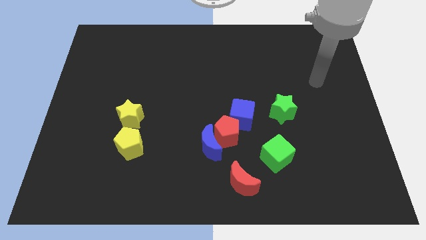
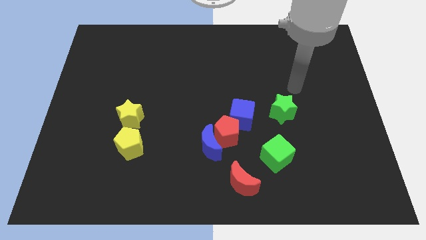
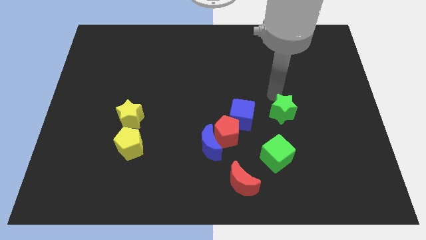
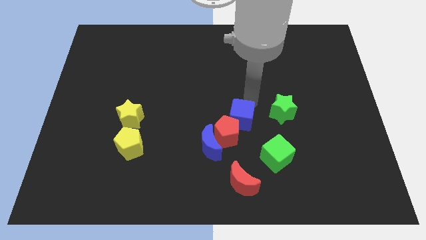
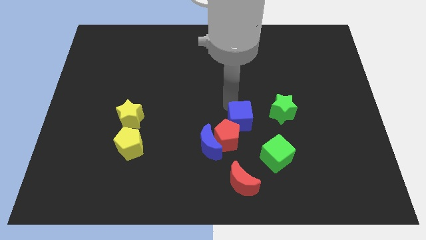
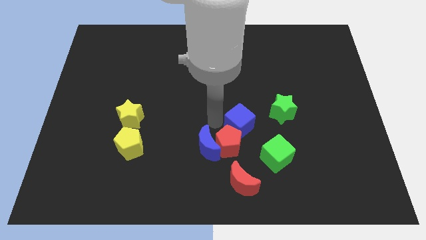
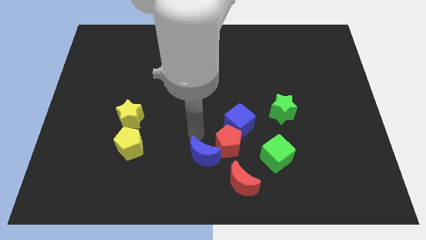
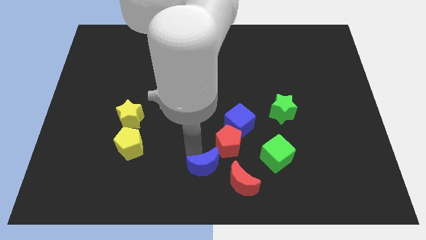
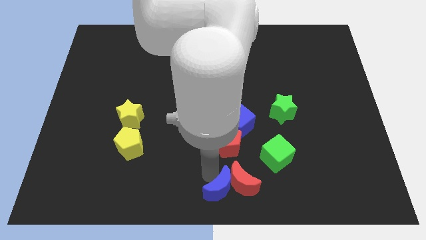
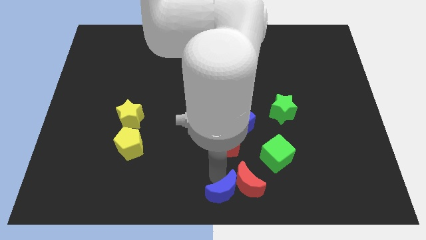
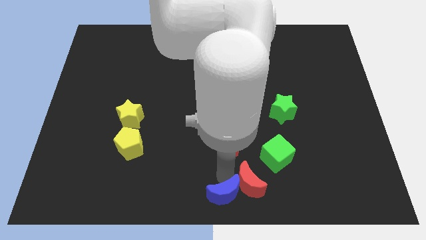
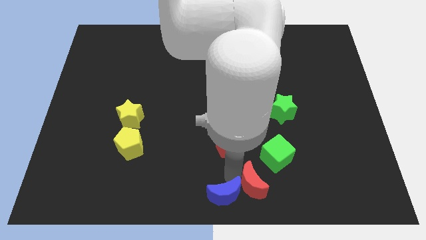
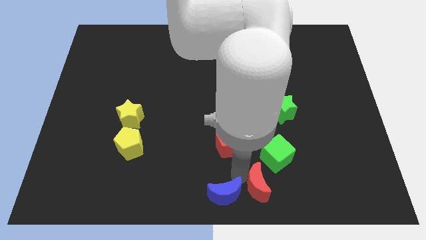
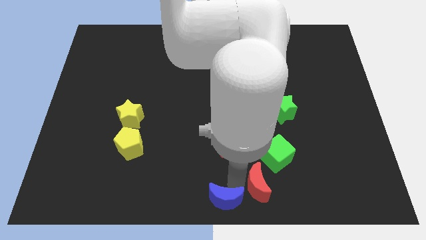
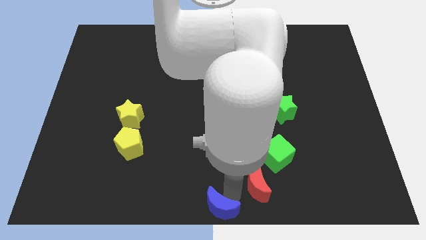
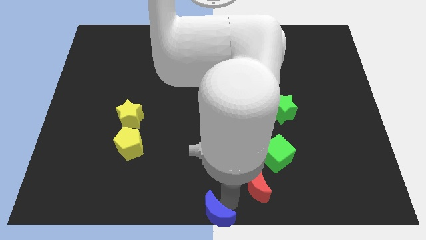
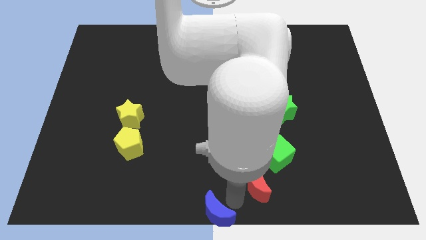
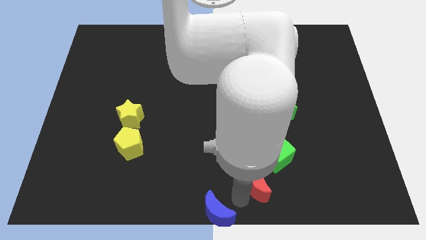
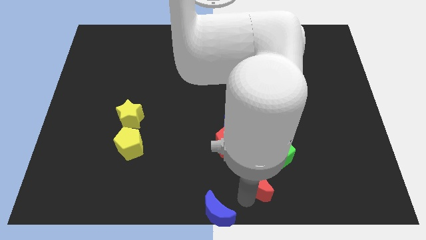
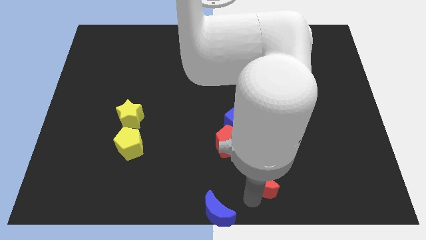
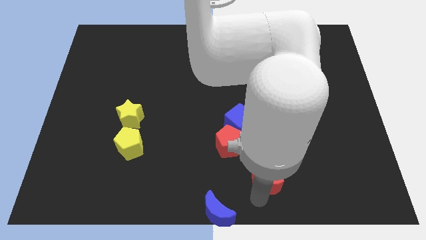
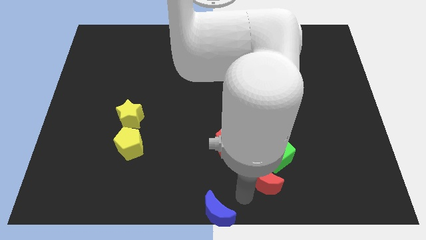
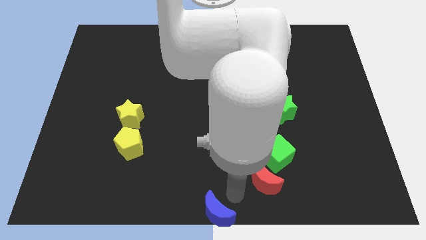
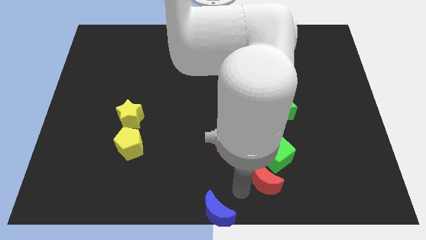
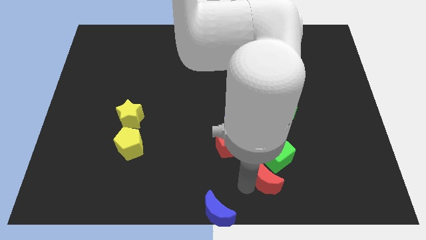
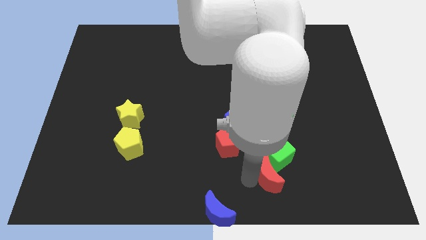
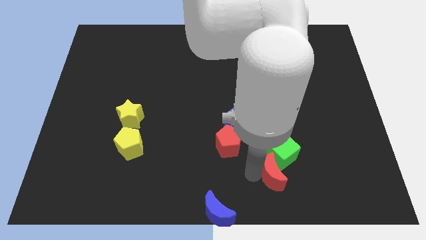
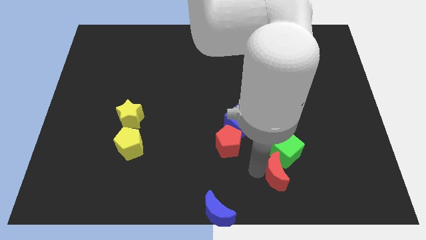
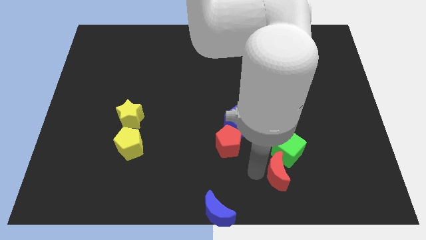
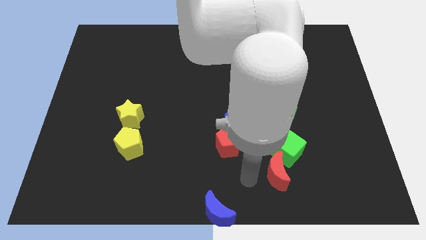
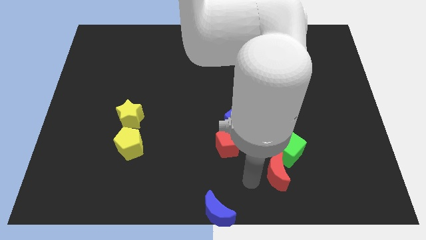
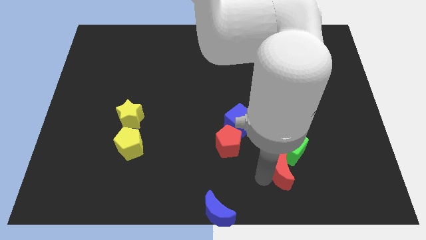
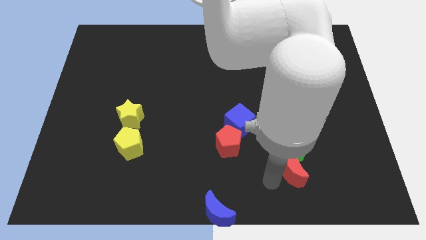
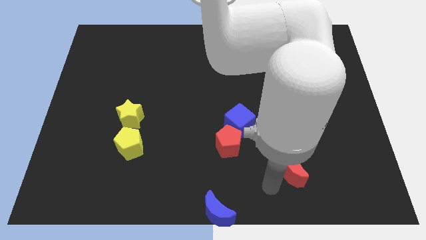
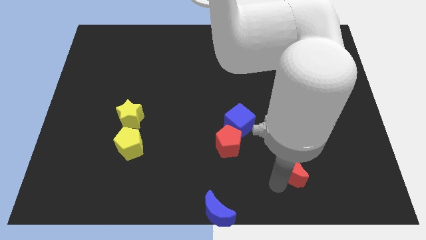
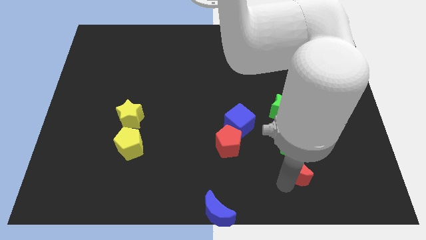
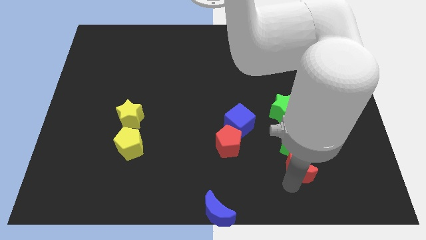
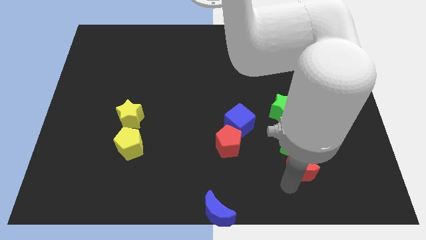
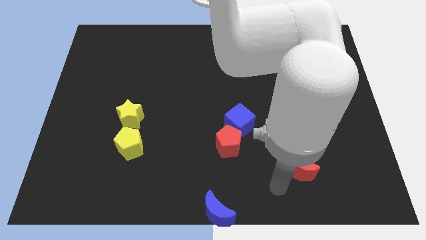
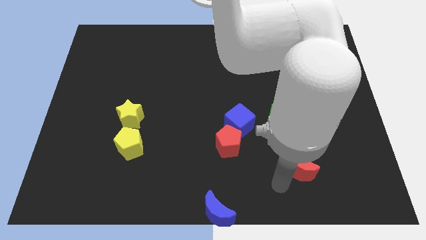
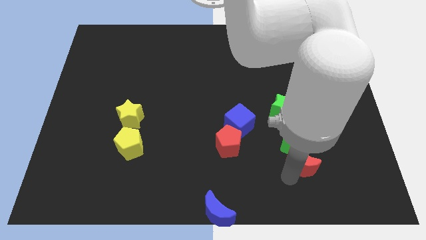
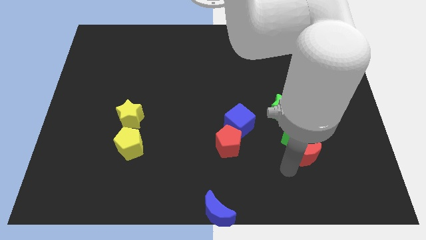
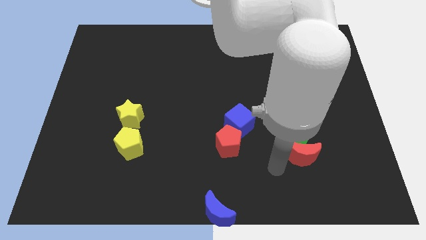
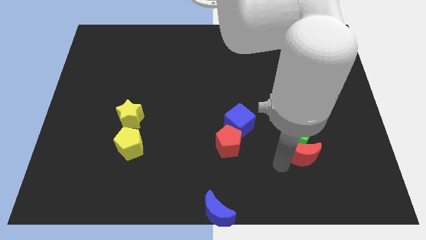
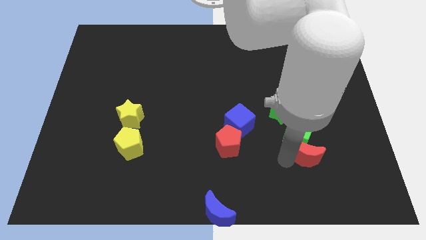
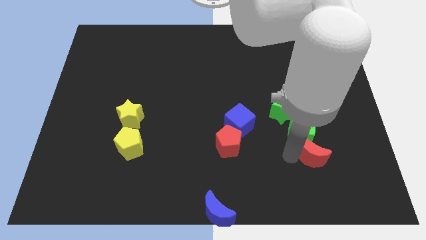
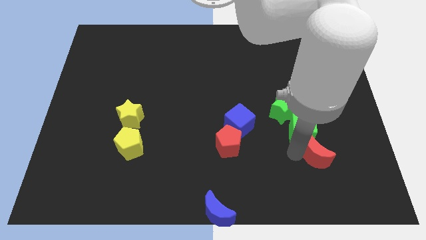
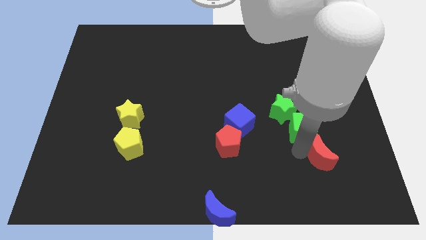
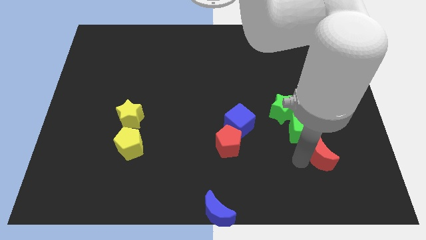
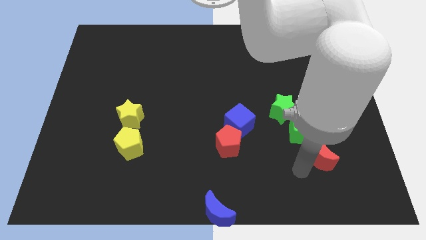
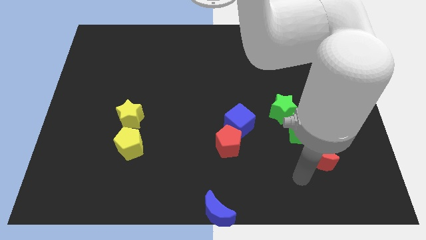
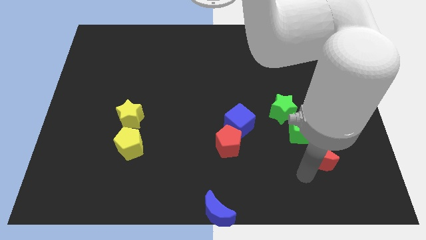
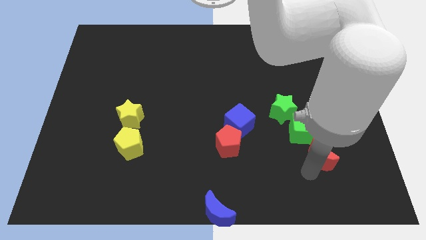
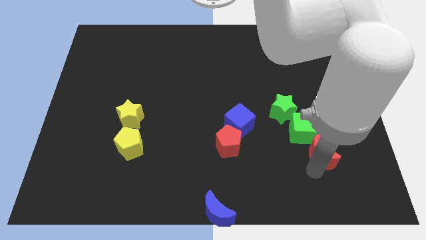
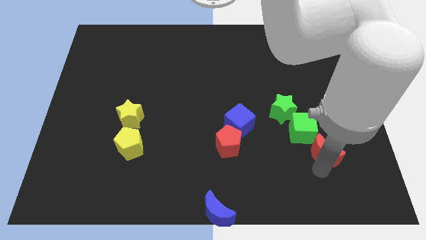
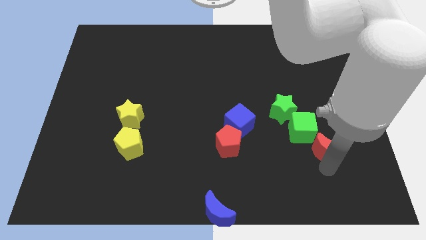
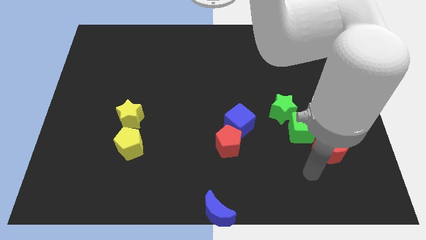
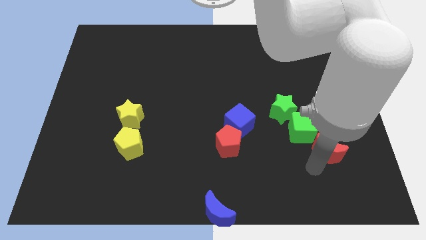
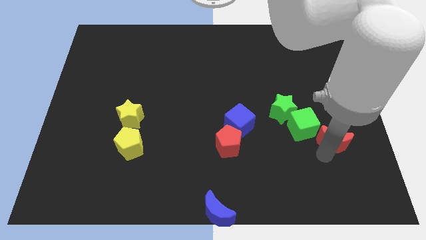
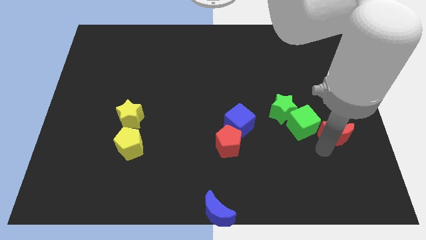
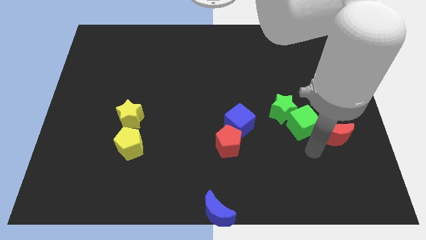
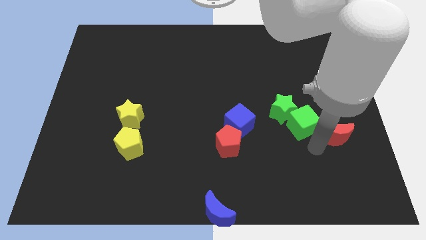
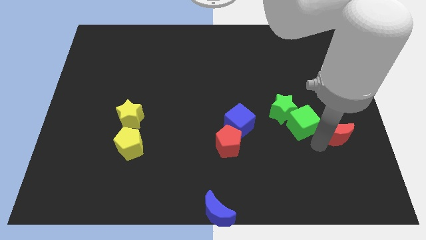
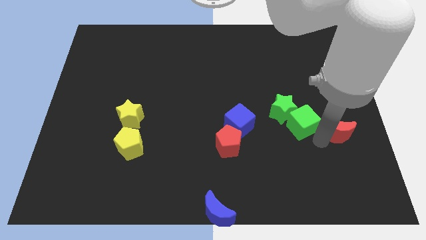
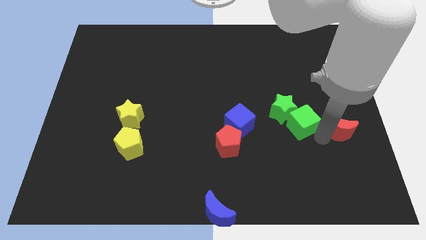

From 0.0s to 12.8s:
put the red moon to the center right

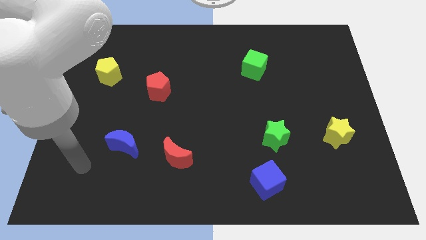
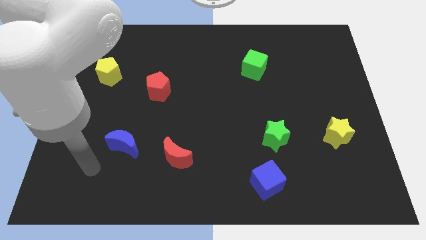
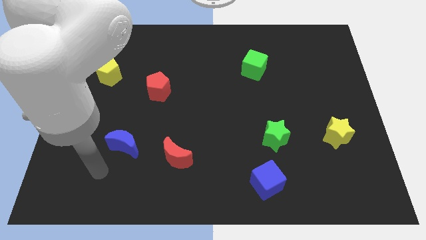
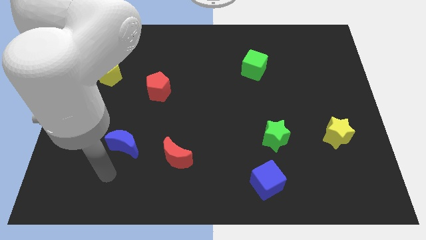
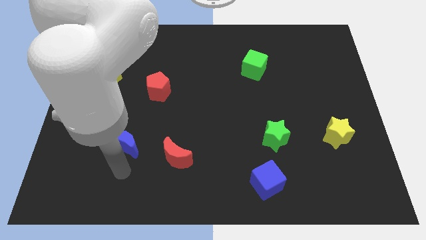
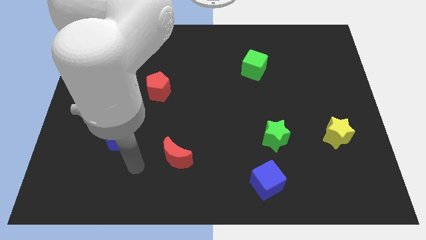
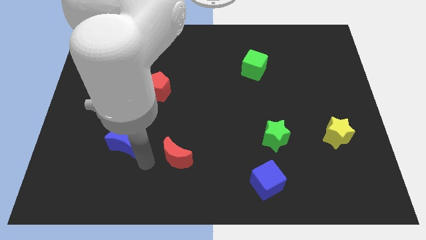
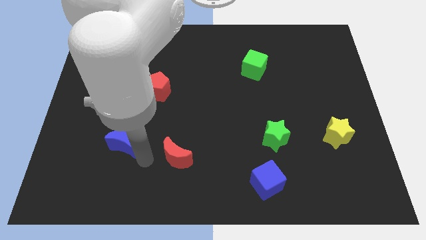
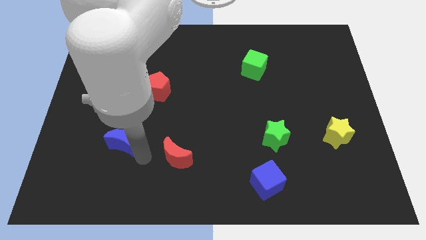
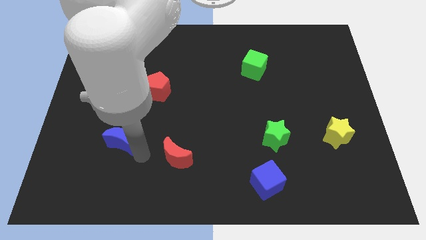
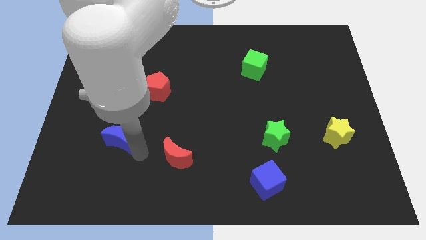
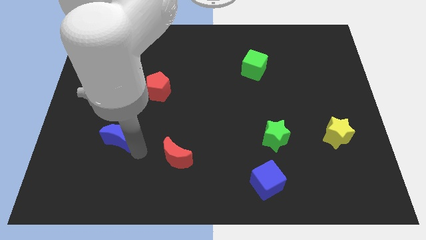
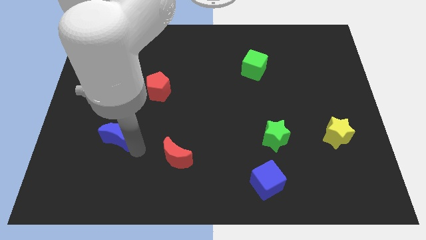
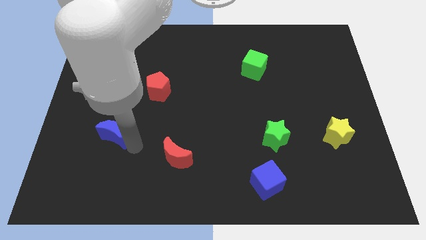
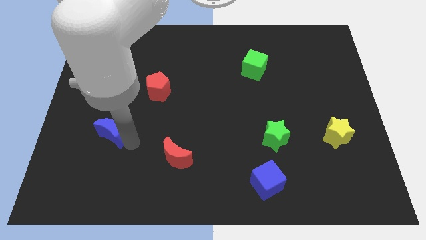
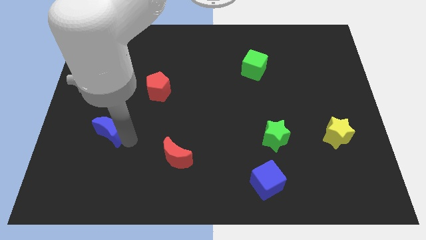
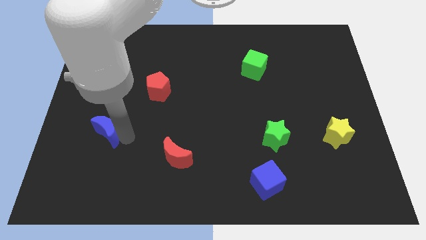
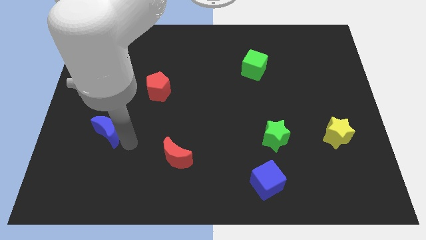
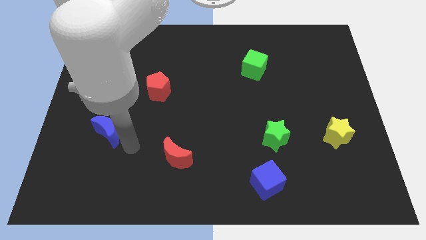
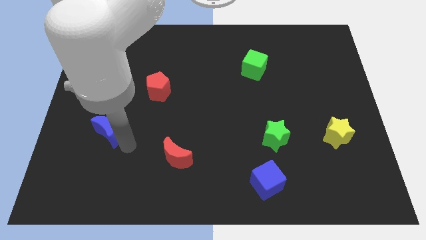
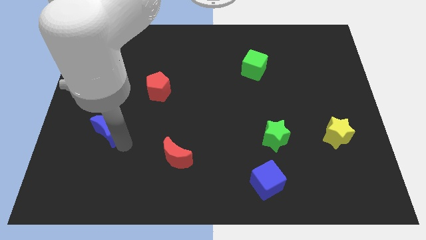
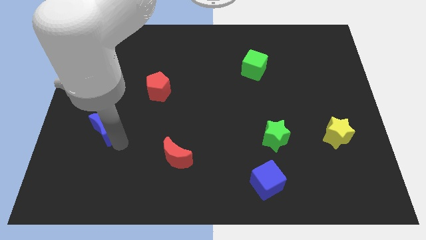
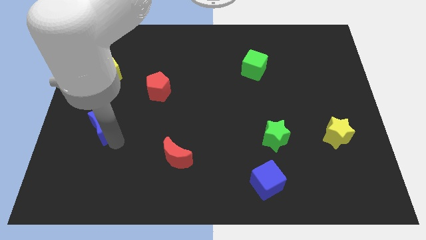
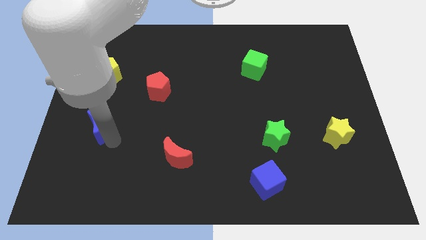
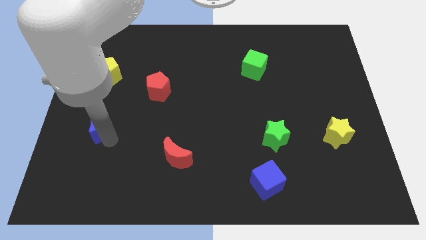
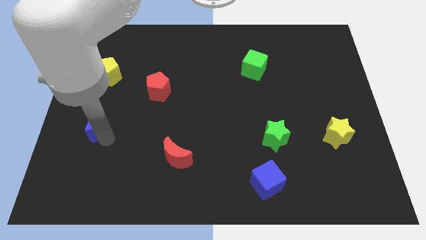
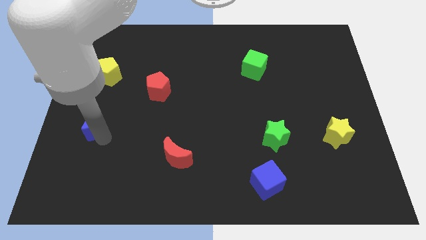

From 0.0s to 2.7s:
move the blue moon to the left side
